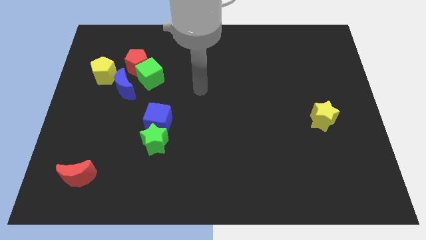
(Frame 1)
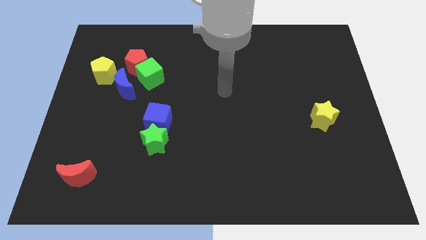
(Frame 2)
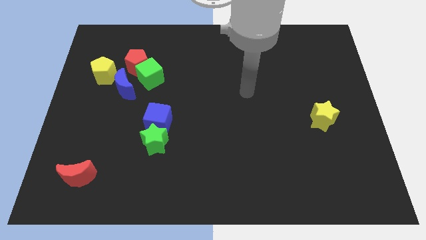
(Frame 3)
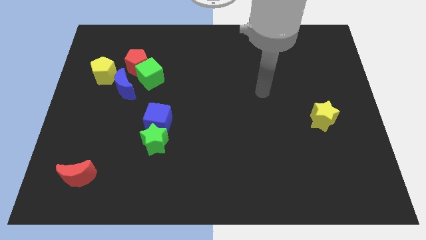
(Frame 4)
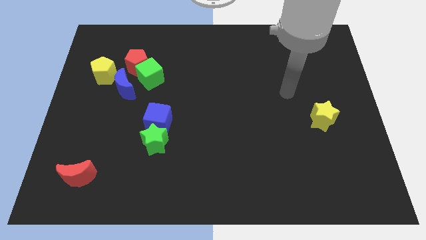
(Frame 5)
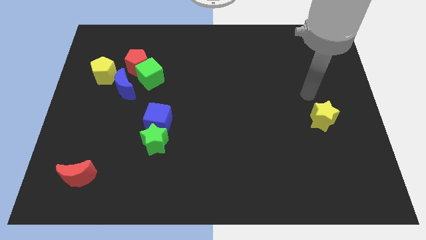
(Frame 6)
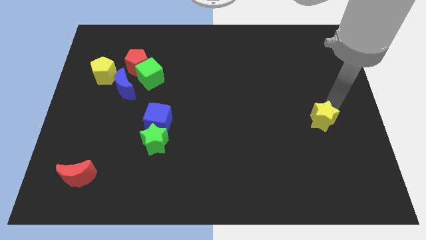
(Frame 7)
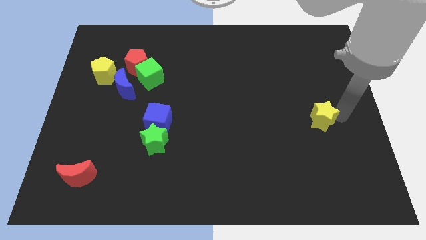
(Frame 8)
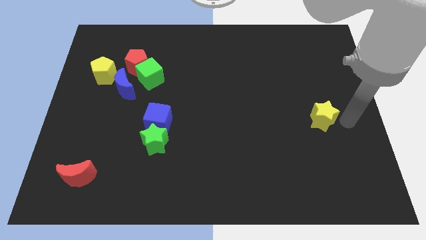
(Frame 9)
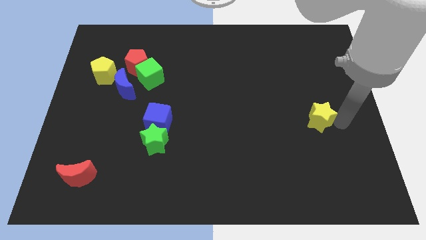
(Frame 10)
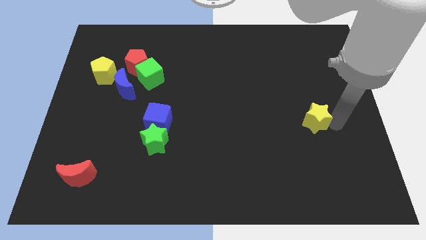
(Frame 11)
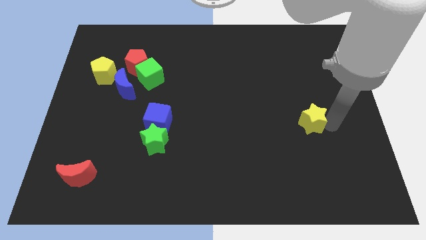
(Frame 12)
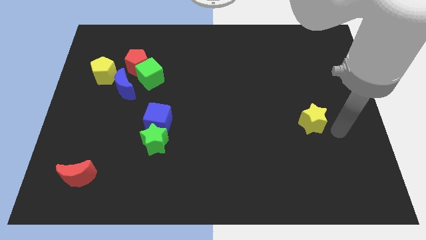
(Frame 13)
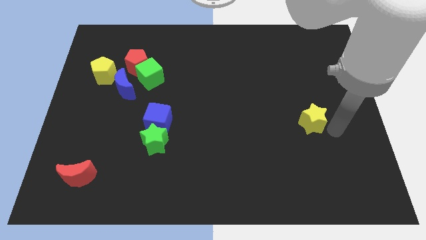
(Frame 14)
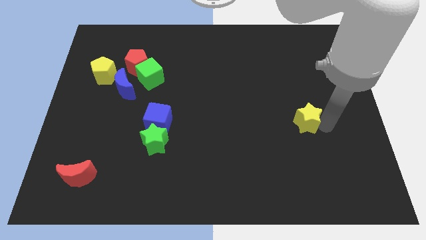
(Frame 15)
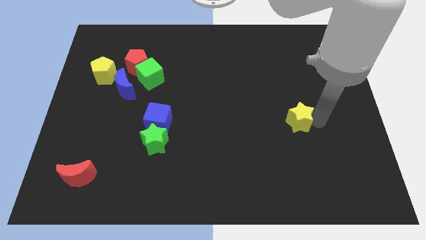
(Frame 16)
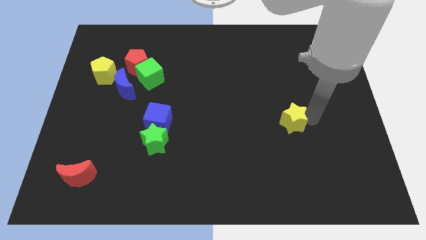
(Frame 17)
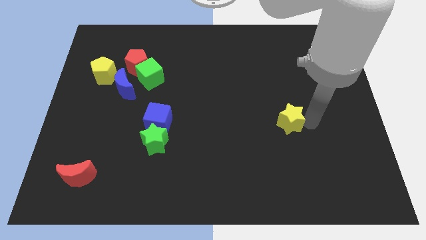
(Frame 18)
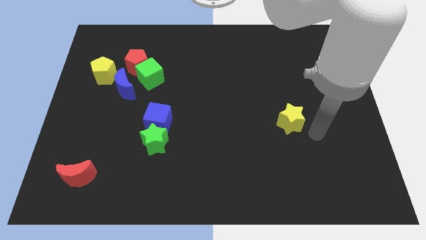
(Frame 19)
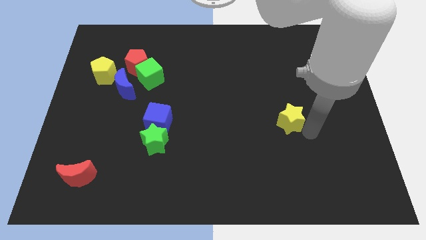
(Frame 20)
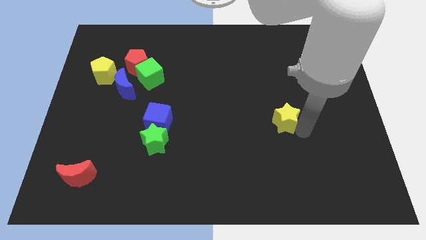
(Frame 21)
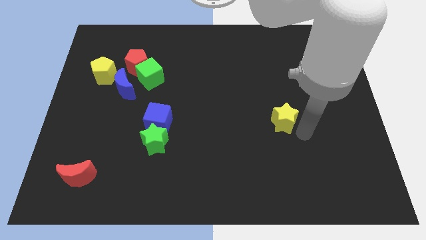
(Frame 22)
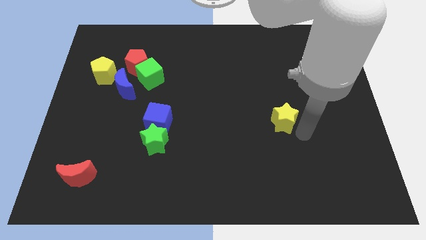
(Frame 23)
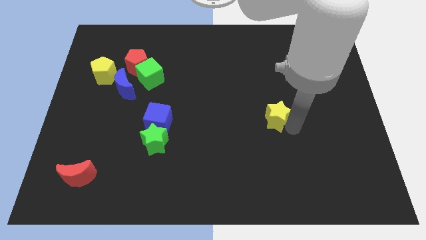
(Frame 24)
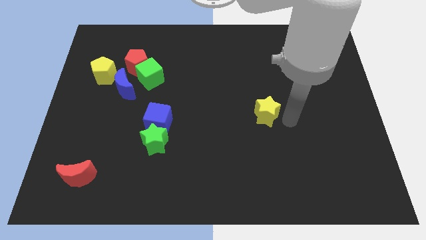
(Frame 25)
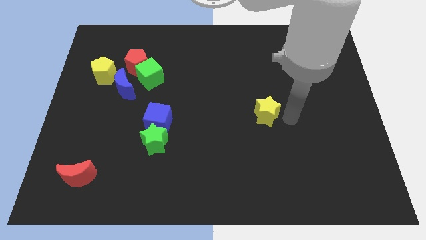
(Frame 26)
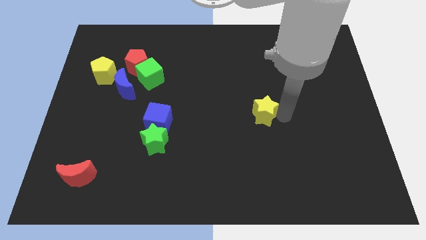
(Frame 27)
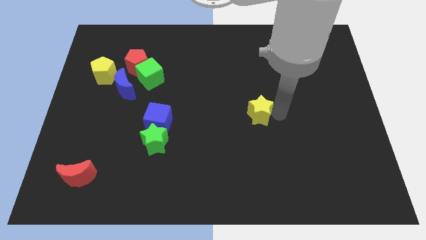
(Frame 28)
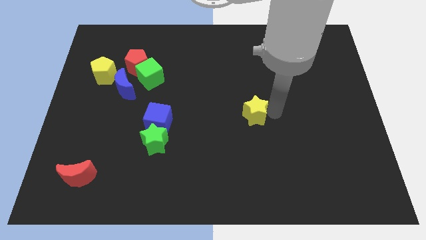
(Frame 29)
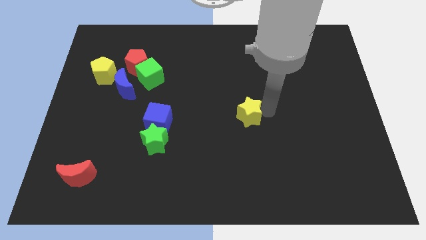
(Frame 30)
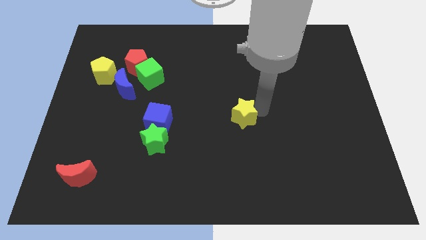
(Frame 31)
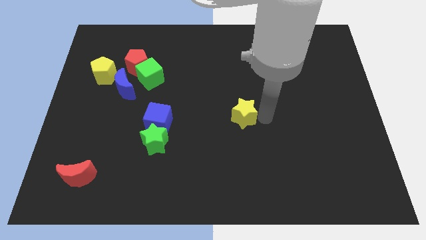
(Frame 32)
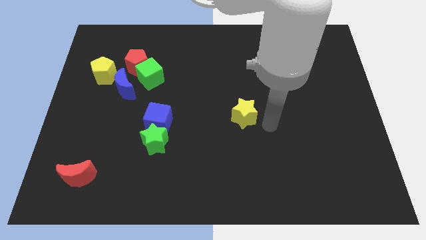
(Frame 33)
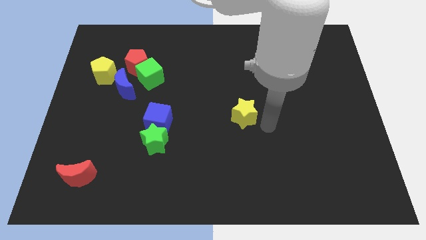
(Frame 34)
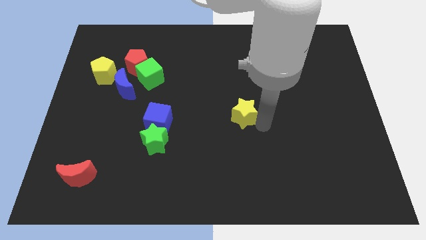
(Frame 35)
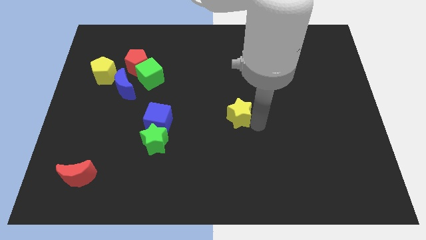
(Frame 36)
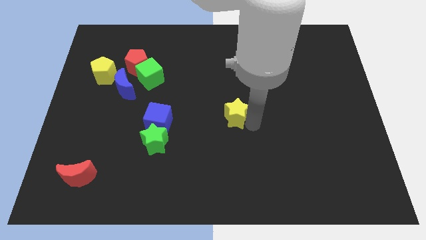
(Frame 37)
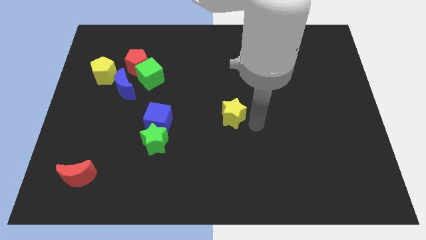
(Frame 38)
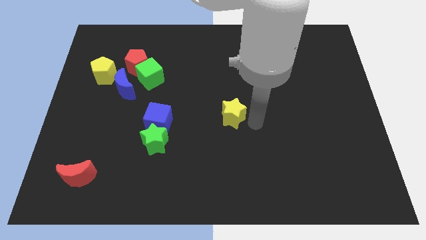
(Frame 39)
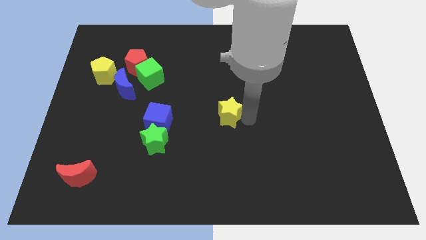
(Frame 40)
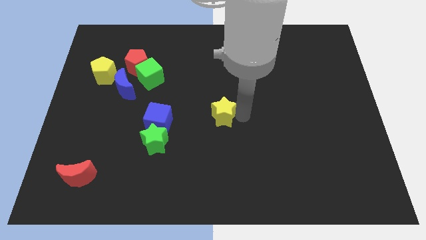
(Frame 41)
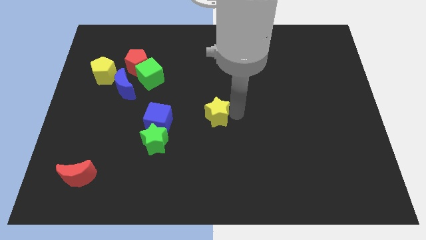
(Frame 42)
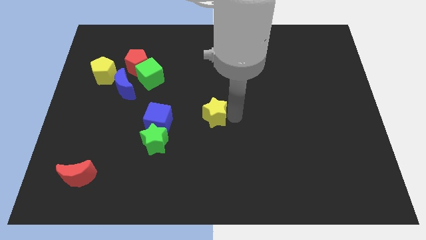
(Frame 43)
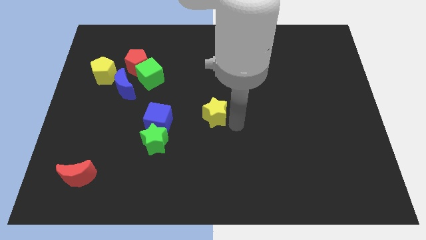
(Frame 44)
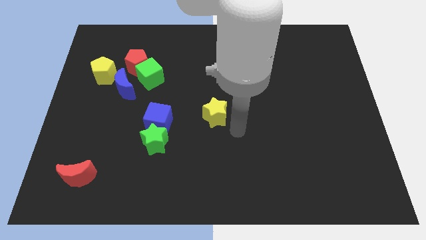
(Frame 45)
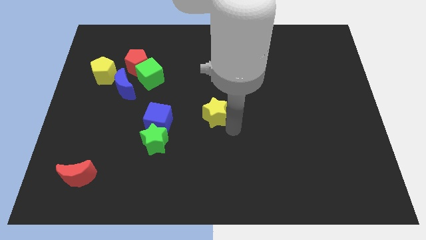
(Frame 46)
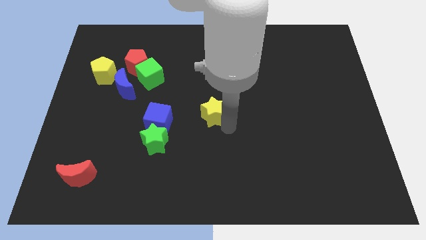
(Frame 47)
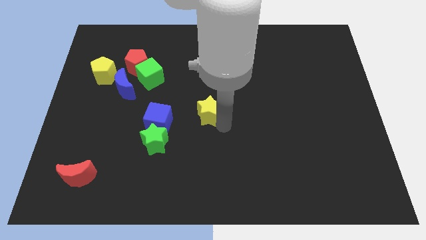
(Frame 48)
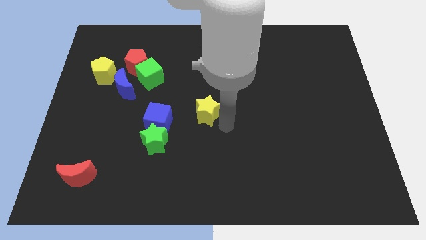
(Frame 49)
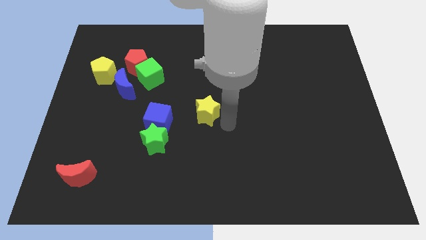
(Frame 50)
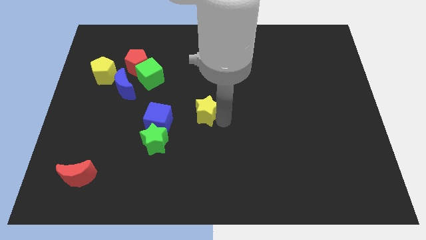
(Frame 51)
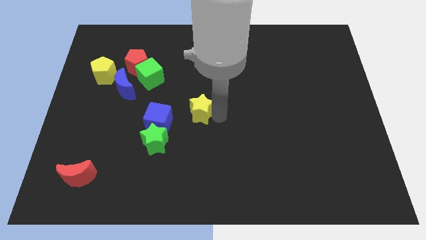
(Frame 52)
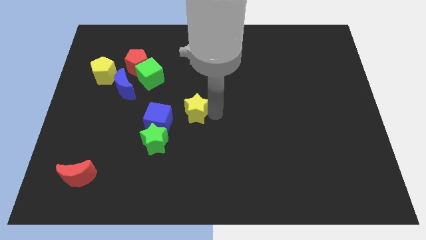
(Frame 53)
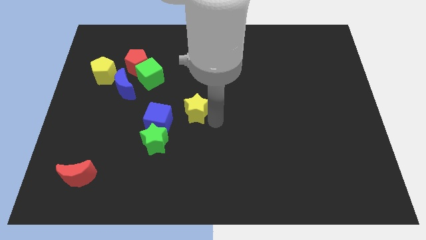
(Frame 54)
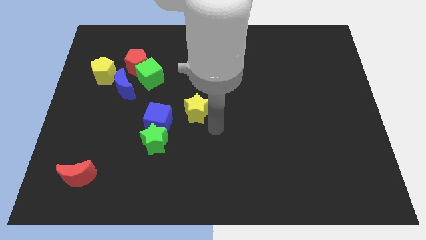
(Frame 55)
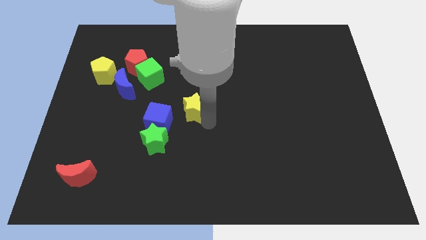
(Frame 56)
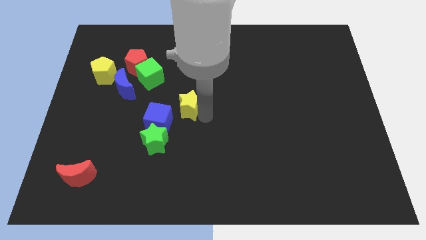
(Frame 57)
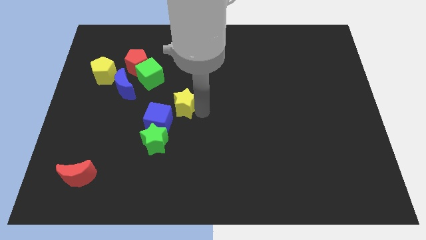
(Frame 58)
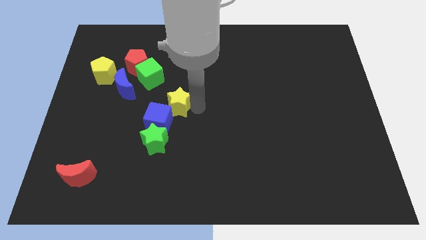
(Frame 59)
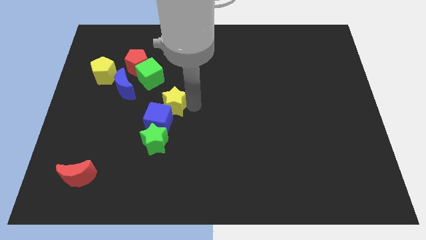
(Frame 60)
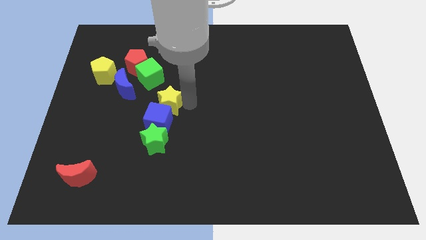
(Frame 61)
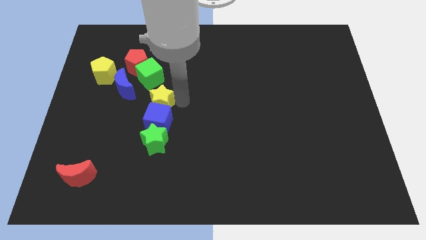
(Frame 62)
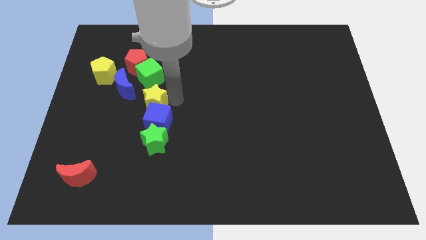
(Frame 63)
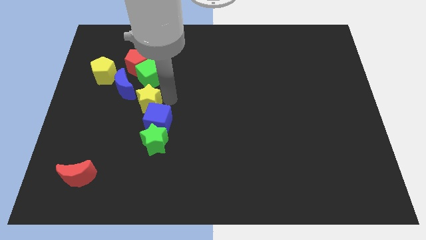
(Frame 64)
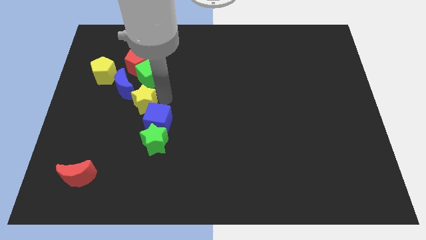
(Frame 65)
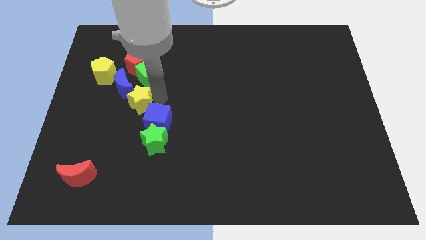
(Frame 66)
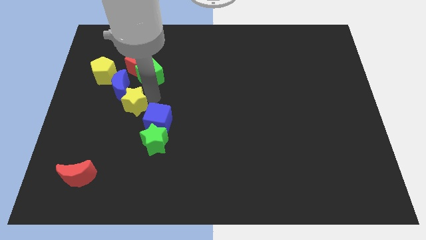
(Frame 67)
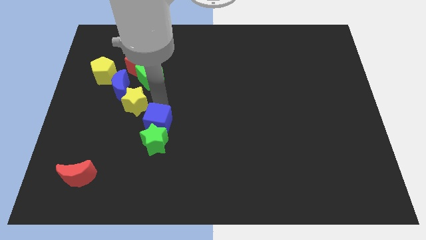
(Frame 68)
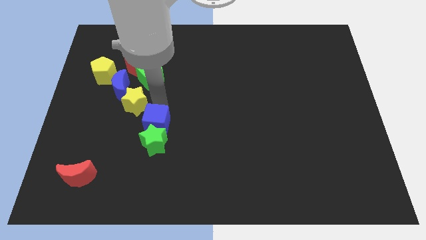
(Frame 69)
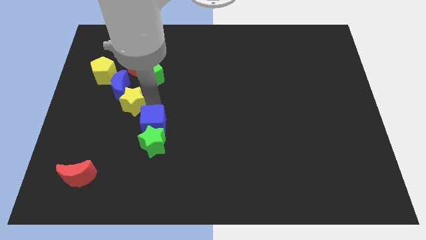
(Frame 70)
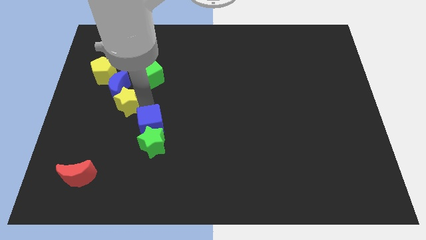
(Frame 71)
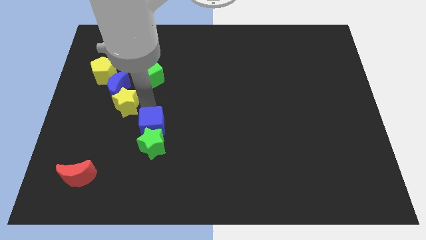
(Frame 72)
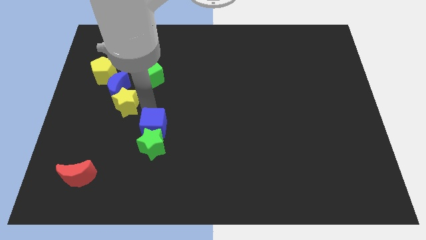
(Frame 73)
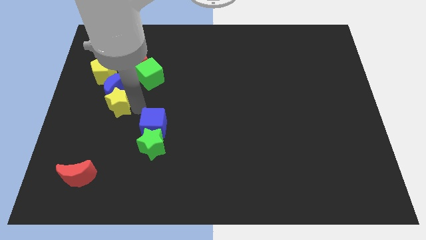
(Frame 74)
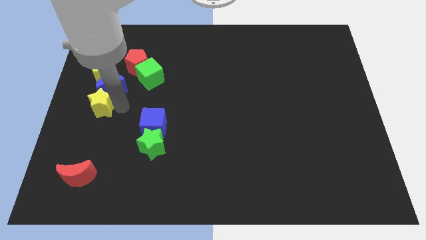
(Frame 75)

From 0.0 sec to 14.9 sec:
slide the yellow star to the left side of the board
